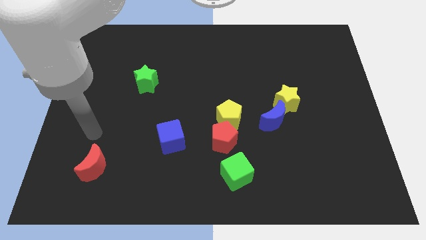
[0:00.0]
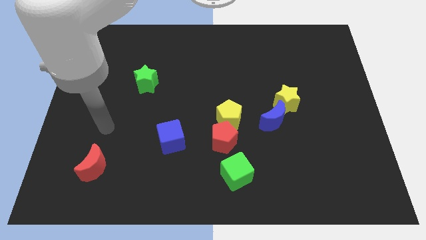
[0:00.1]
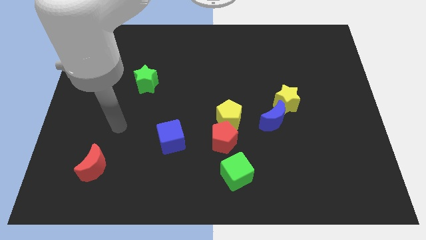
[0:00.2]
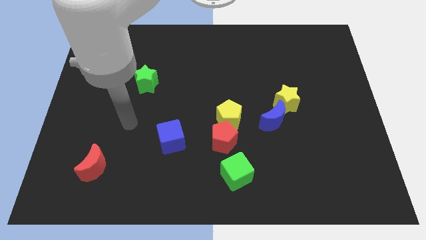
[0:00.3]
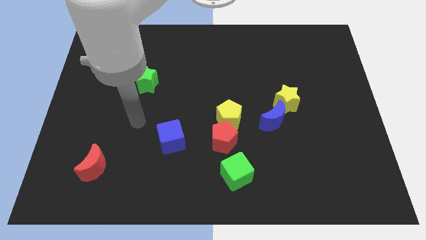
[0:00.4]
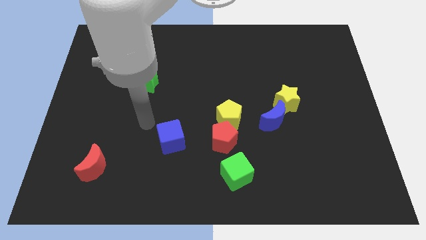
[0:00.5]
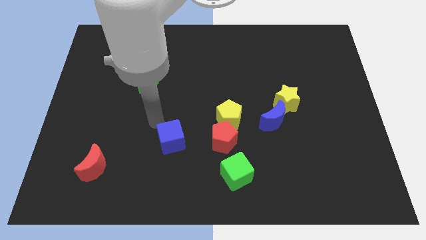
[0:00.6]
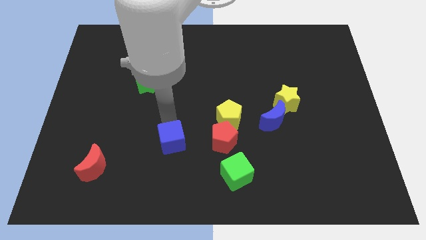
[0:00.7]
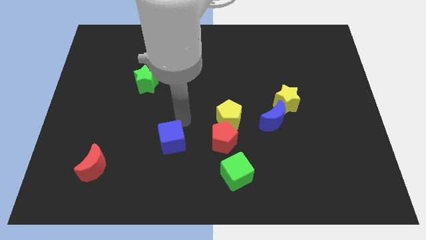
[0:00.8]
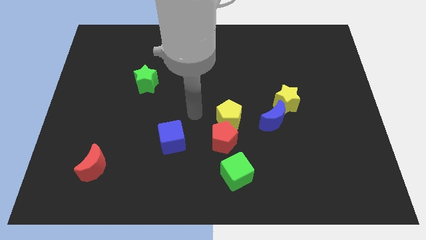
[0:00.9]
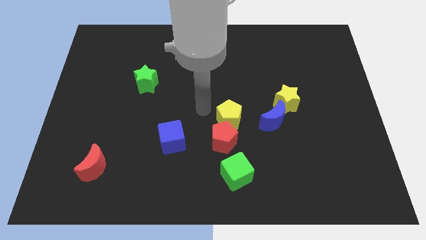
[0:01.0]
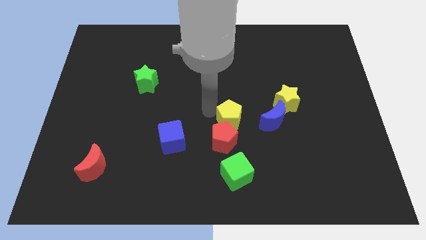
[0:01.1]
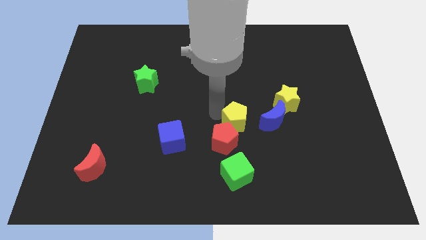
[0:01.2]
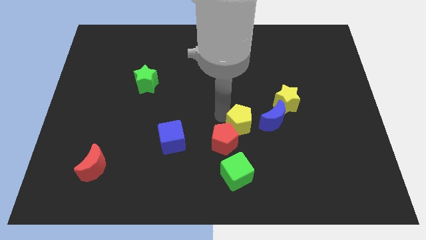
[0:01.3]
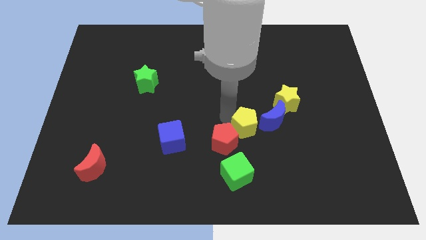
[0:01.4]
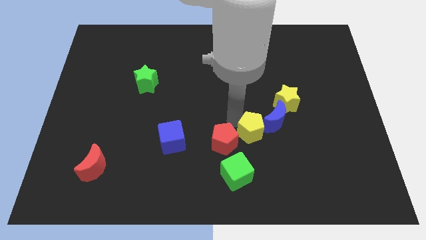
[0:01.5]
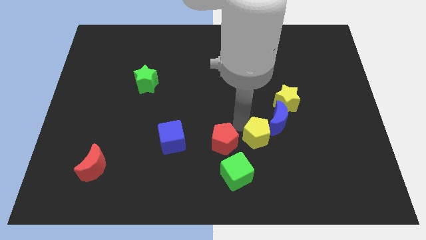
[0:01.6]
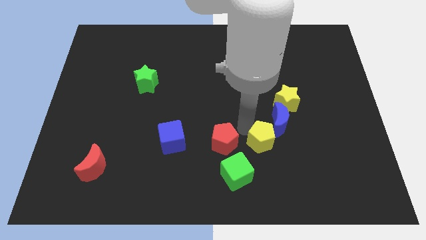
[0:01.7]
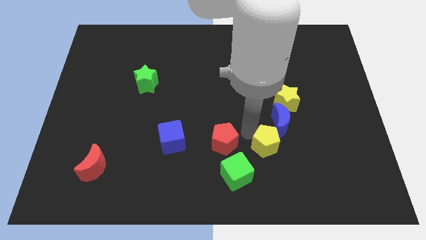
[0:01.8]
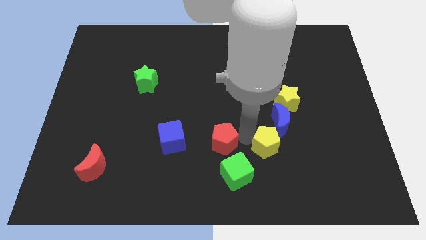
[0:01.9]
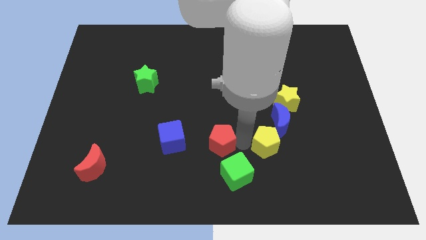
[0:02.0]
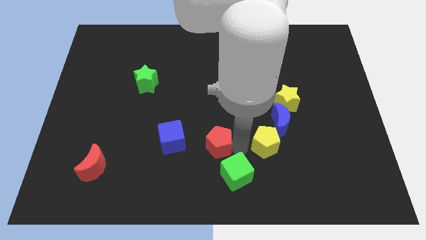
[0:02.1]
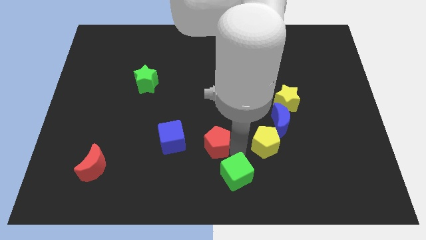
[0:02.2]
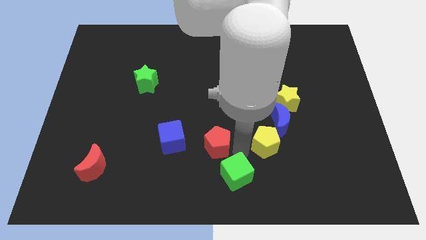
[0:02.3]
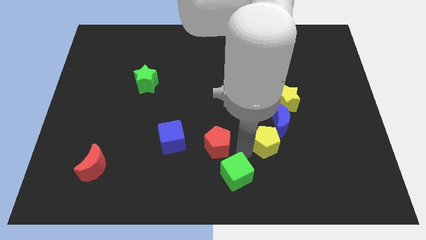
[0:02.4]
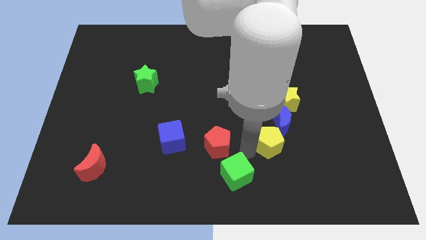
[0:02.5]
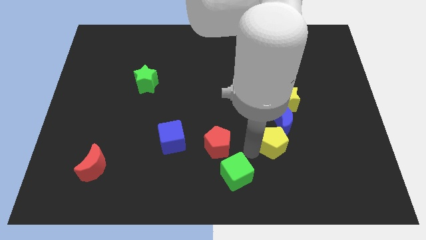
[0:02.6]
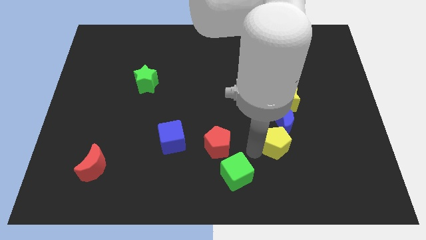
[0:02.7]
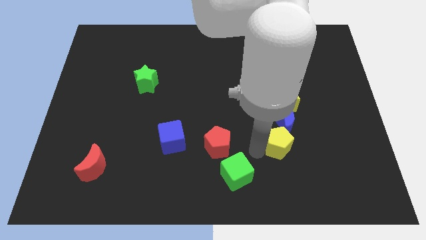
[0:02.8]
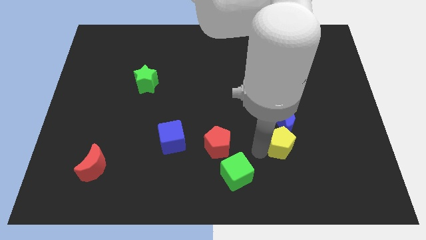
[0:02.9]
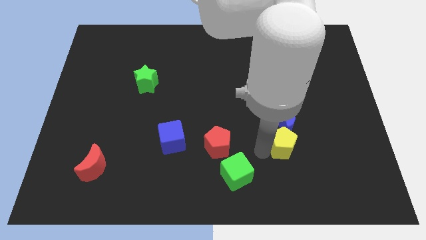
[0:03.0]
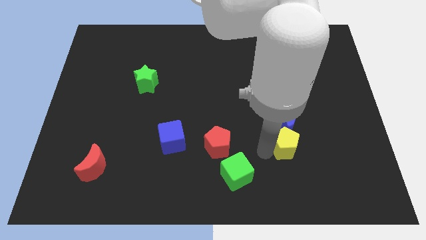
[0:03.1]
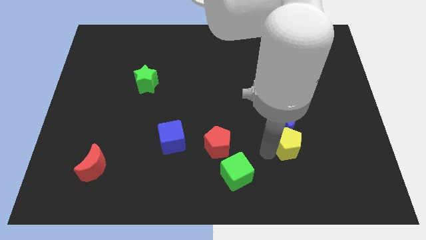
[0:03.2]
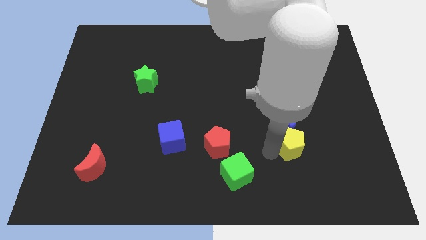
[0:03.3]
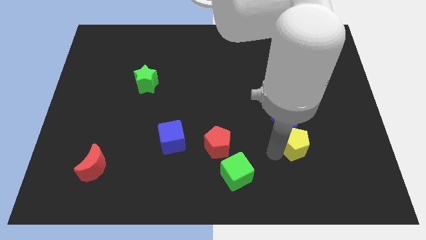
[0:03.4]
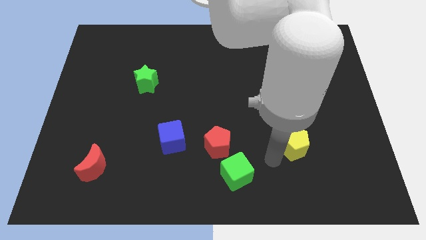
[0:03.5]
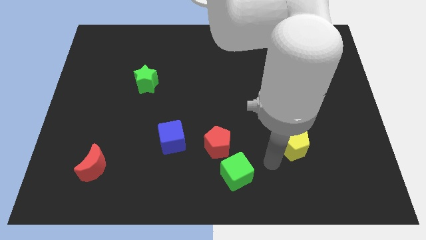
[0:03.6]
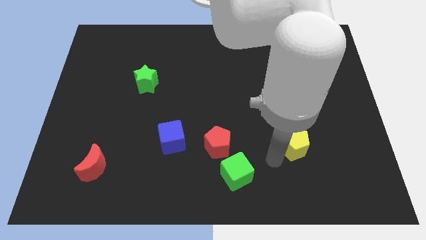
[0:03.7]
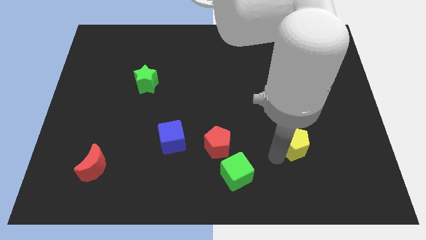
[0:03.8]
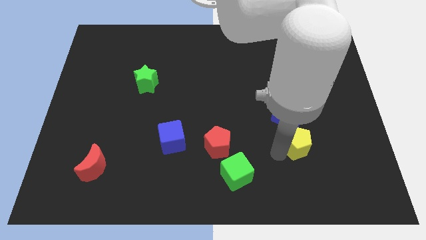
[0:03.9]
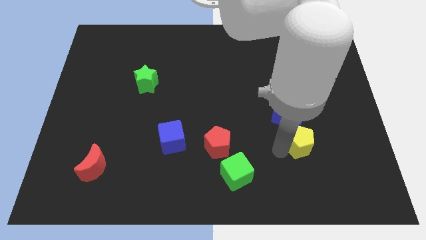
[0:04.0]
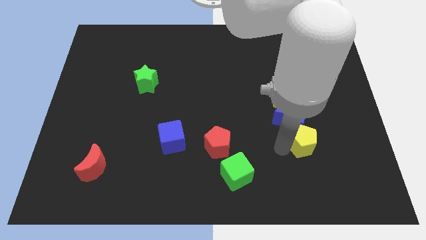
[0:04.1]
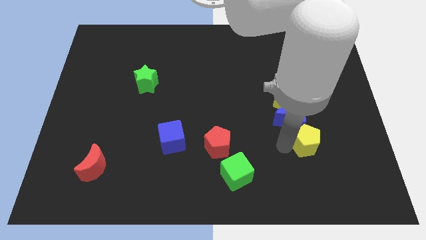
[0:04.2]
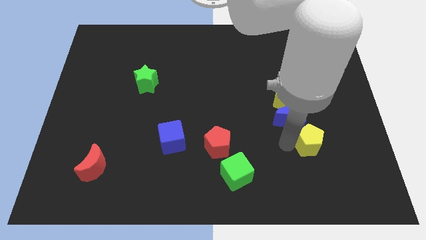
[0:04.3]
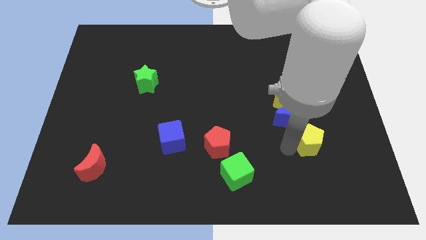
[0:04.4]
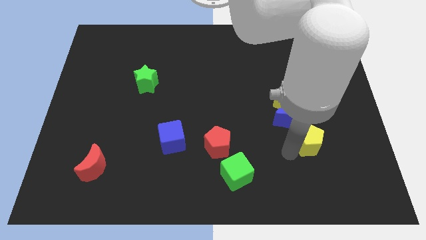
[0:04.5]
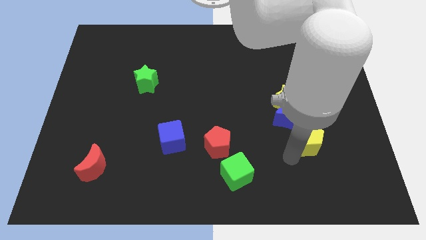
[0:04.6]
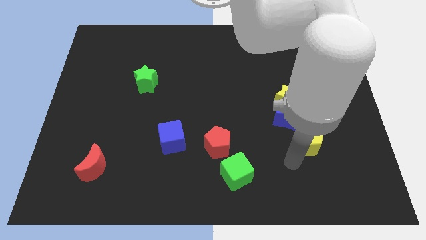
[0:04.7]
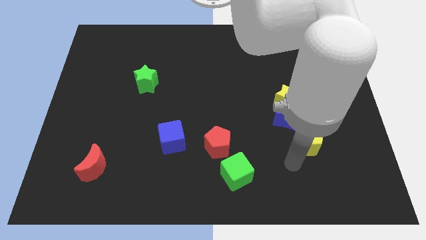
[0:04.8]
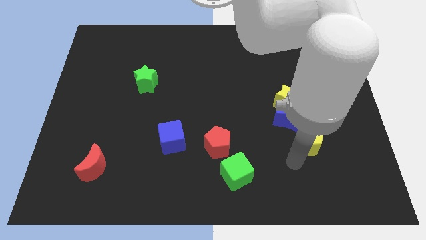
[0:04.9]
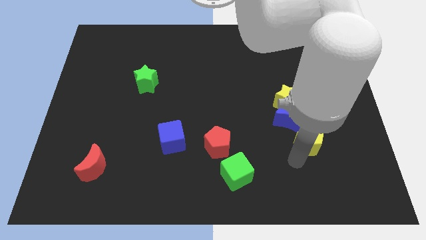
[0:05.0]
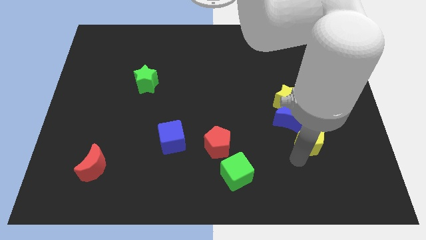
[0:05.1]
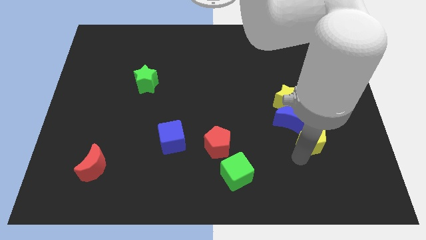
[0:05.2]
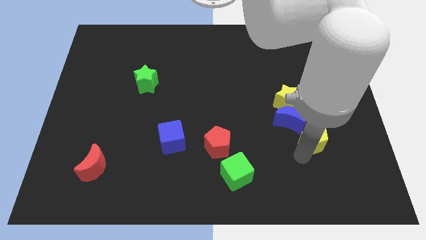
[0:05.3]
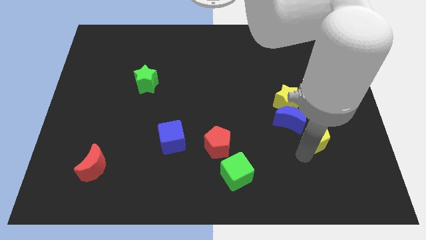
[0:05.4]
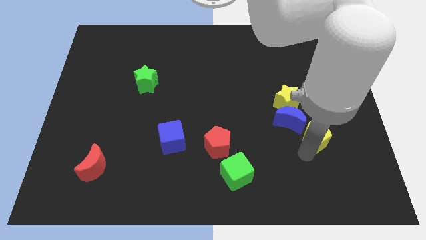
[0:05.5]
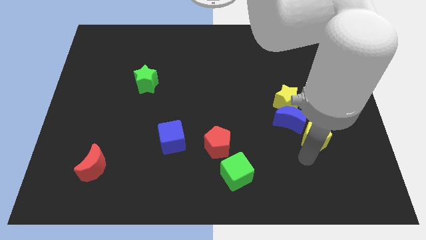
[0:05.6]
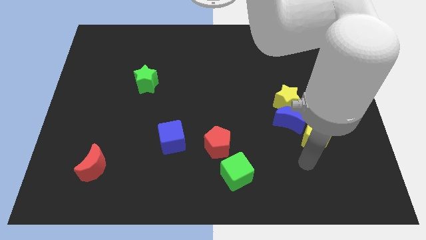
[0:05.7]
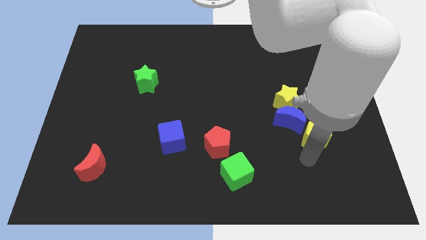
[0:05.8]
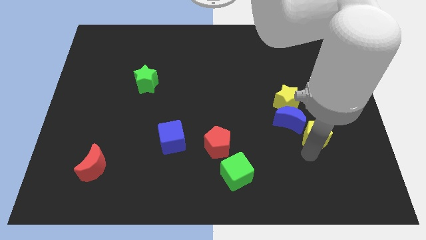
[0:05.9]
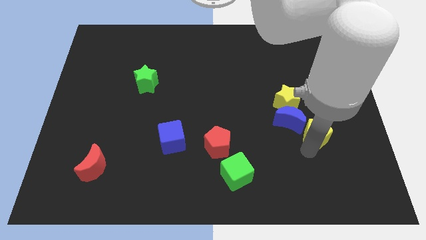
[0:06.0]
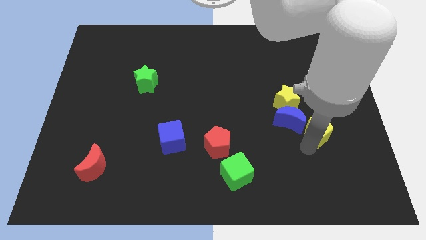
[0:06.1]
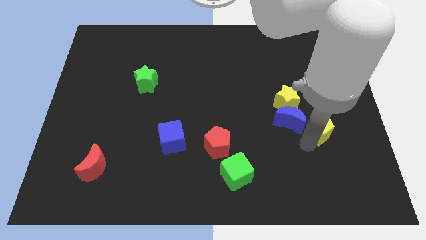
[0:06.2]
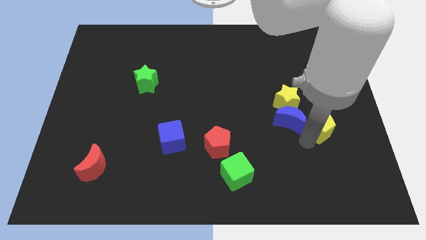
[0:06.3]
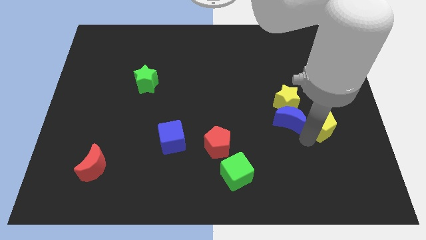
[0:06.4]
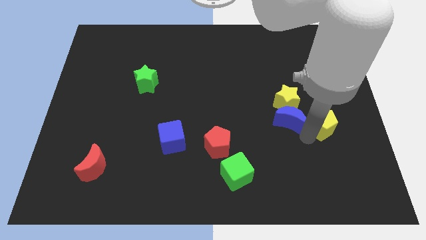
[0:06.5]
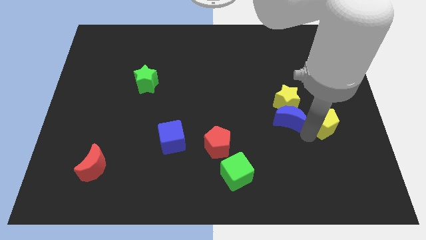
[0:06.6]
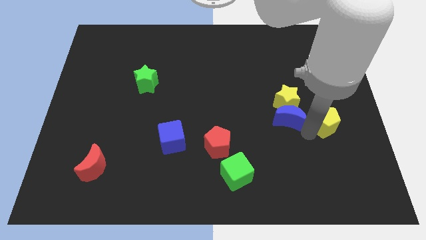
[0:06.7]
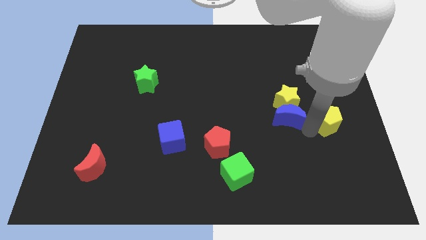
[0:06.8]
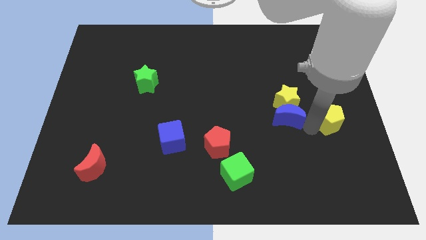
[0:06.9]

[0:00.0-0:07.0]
push the yellow pentagon to the right side of the board
